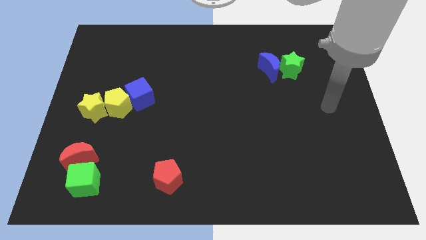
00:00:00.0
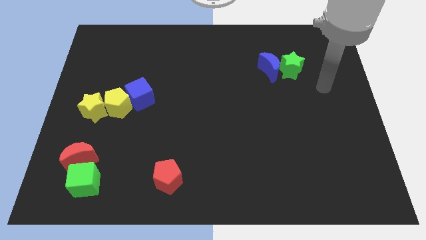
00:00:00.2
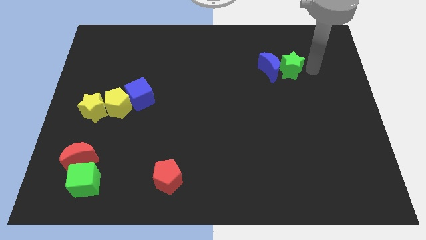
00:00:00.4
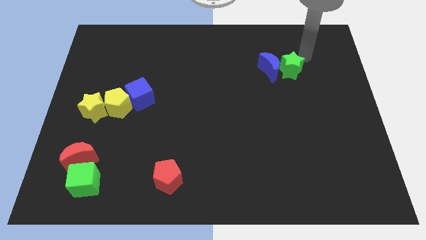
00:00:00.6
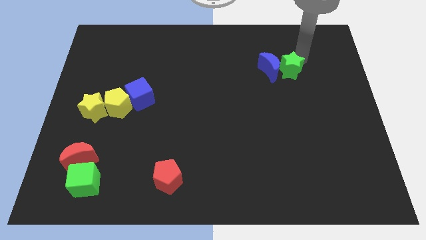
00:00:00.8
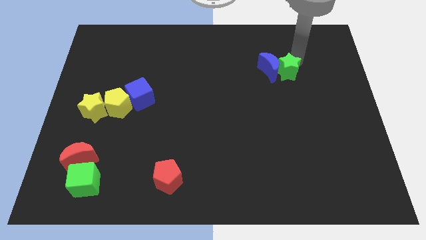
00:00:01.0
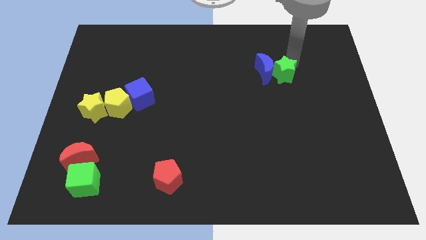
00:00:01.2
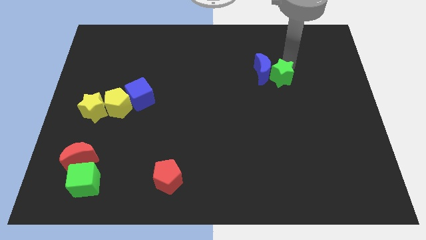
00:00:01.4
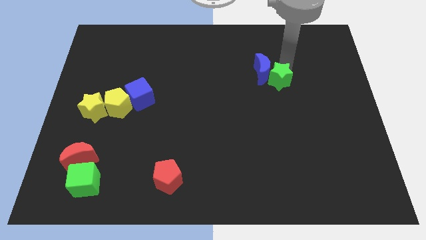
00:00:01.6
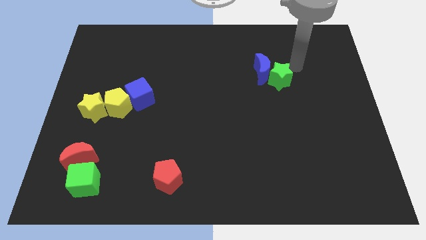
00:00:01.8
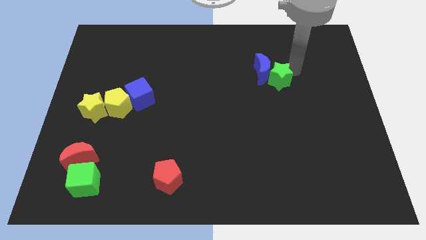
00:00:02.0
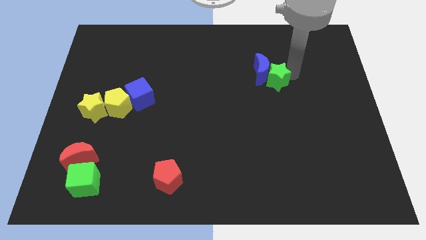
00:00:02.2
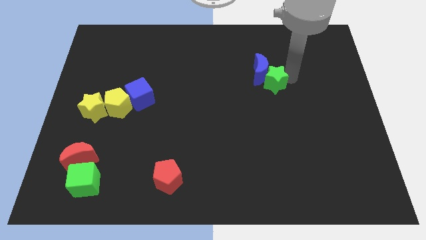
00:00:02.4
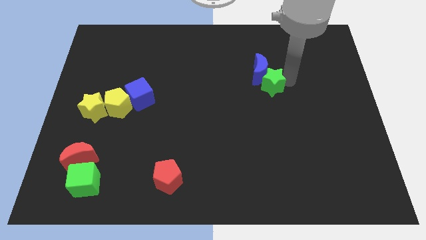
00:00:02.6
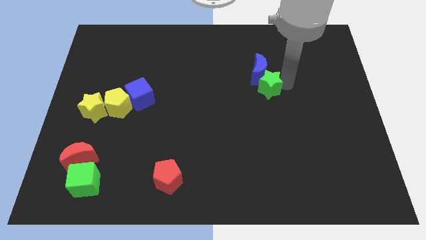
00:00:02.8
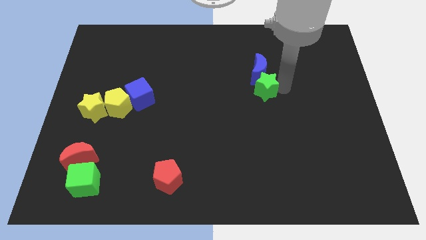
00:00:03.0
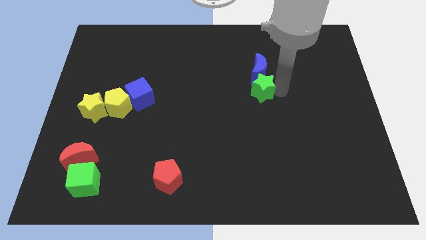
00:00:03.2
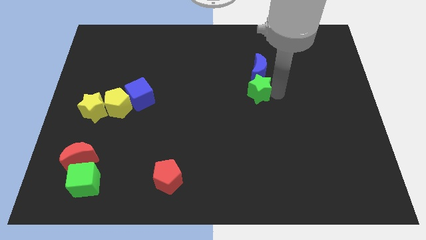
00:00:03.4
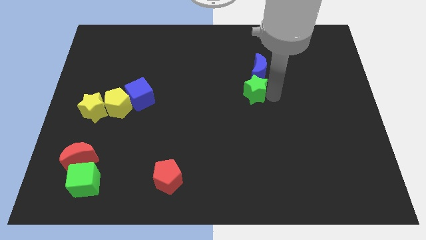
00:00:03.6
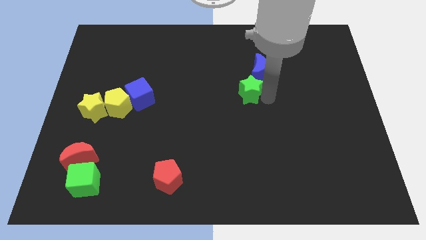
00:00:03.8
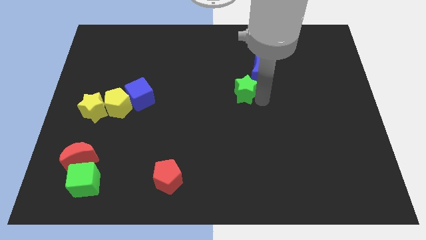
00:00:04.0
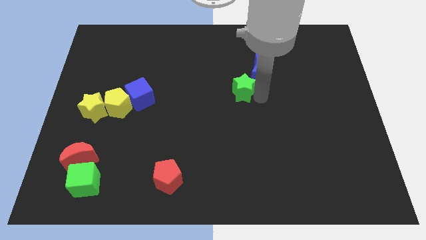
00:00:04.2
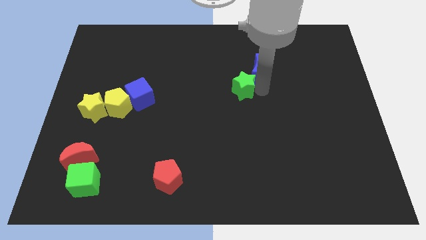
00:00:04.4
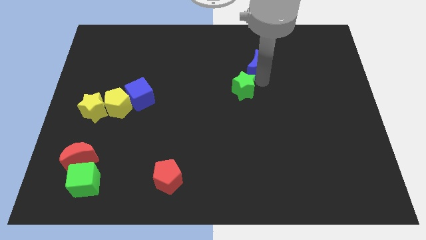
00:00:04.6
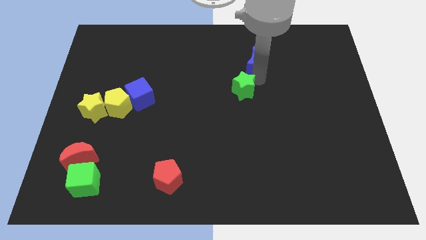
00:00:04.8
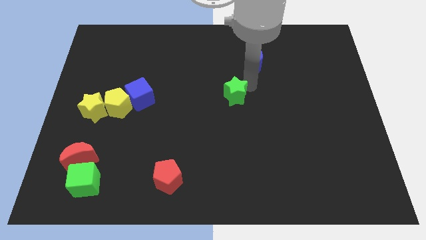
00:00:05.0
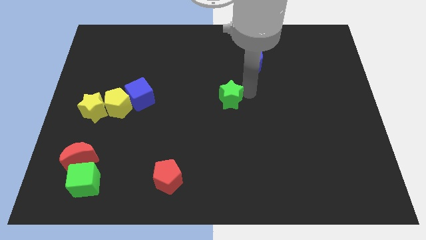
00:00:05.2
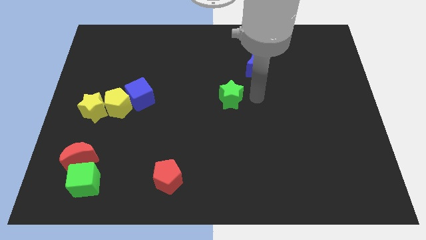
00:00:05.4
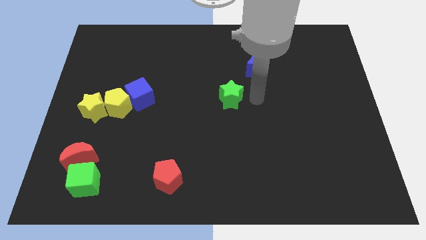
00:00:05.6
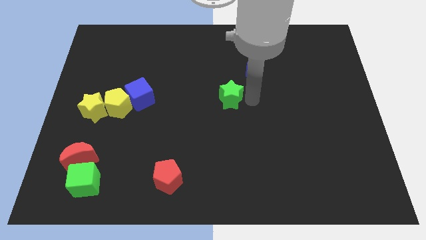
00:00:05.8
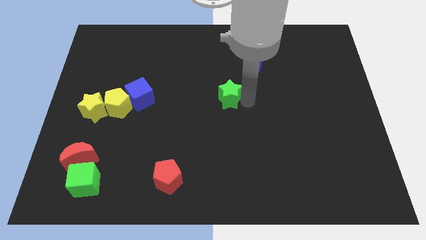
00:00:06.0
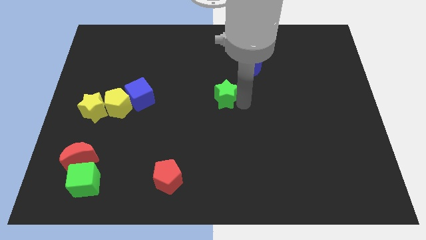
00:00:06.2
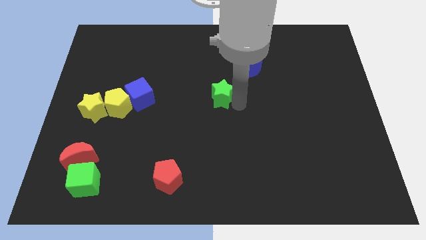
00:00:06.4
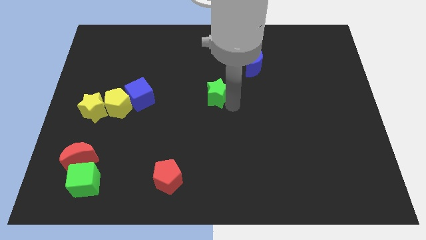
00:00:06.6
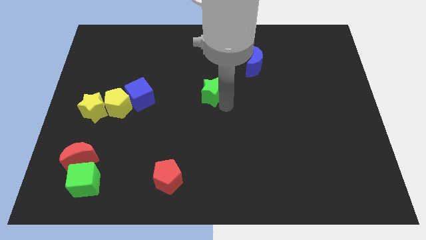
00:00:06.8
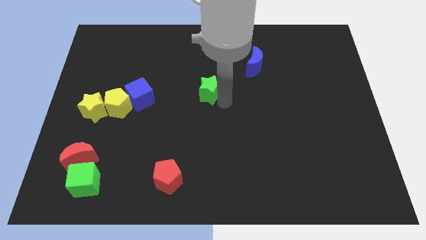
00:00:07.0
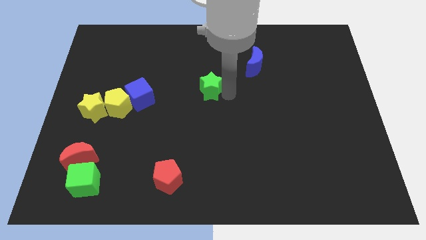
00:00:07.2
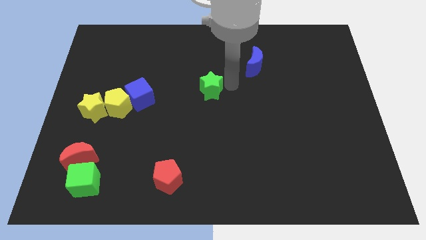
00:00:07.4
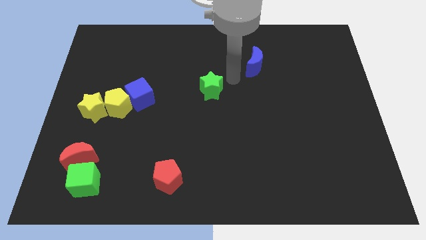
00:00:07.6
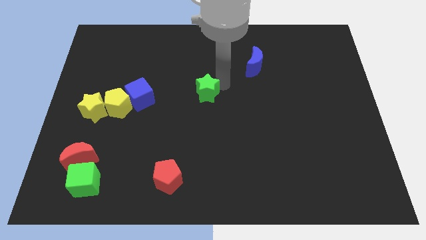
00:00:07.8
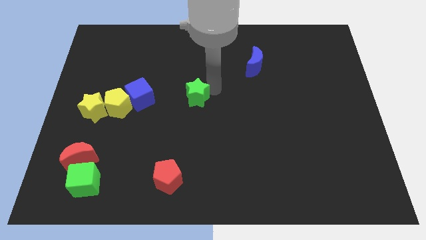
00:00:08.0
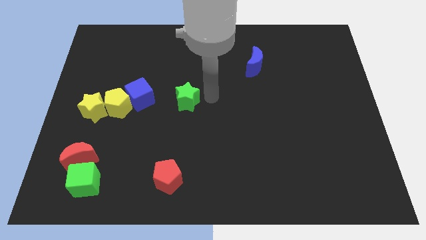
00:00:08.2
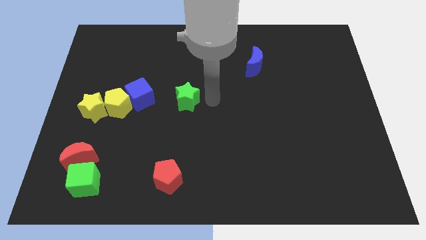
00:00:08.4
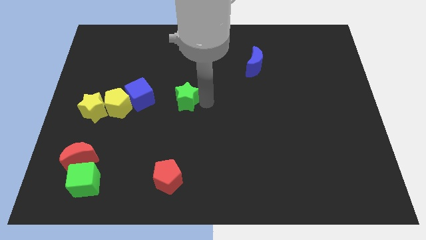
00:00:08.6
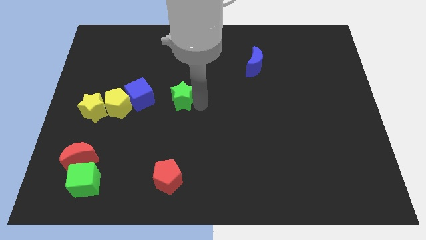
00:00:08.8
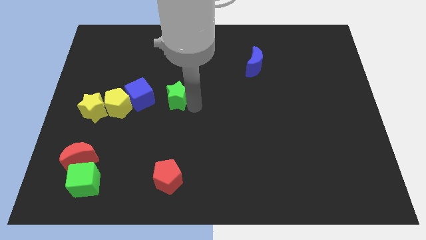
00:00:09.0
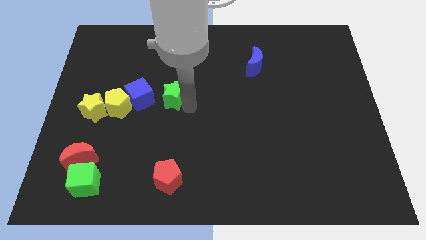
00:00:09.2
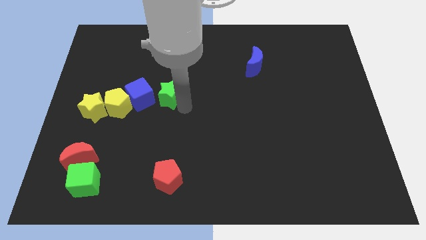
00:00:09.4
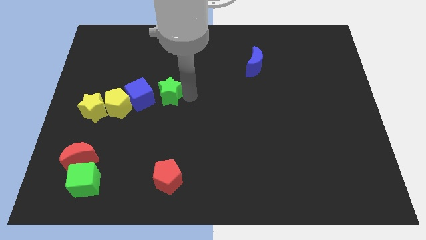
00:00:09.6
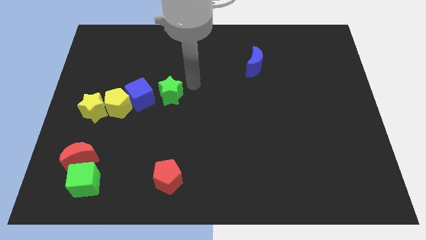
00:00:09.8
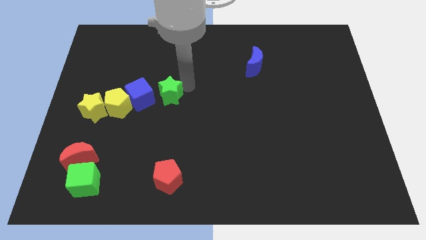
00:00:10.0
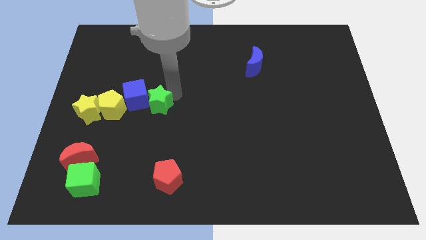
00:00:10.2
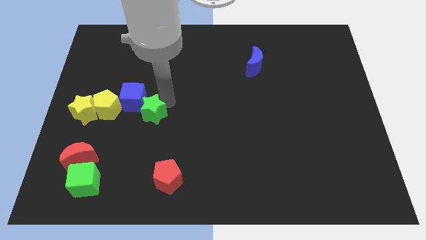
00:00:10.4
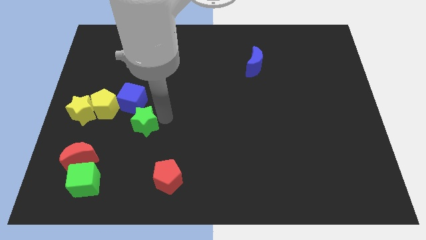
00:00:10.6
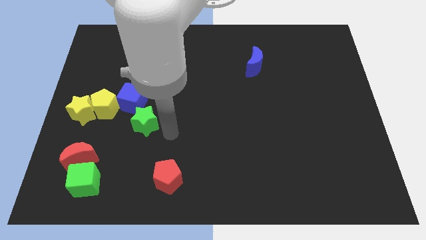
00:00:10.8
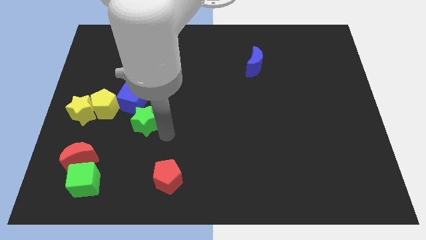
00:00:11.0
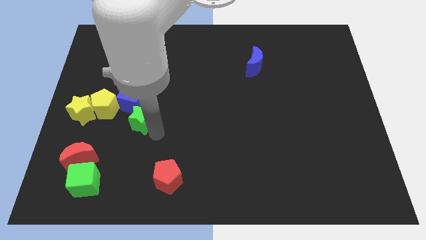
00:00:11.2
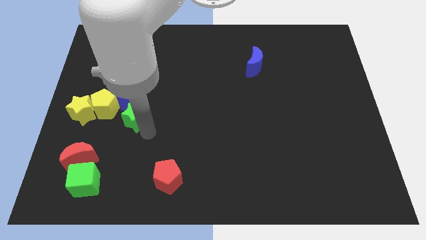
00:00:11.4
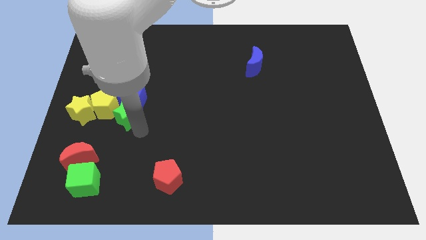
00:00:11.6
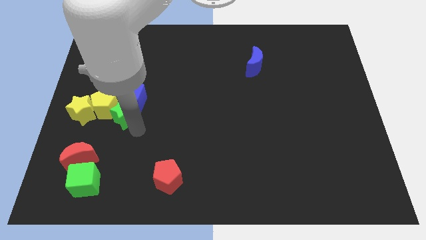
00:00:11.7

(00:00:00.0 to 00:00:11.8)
move the green star to the yellow pentagon

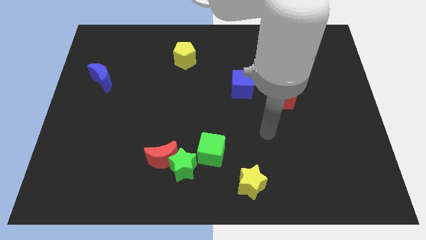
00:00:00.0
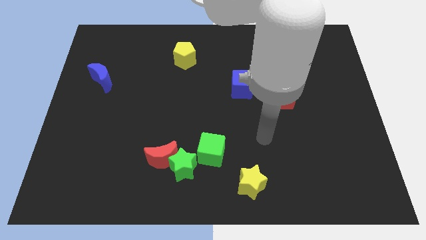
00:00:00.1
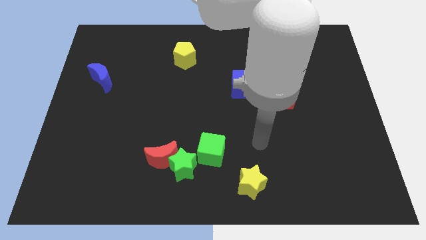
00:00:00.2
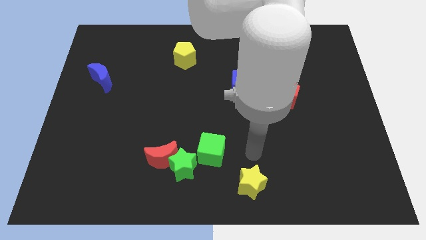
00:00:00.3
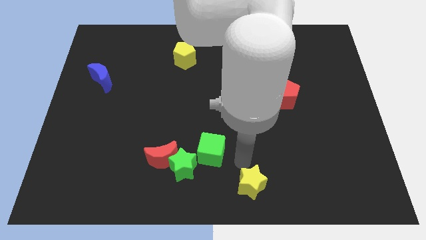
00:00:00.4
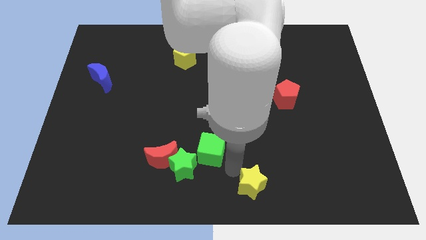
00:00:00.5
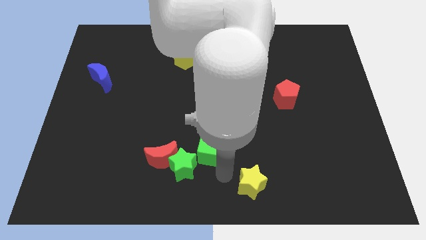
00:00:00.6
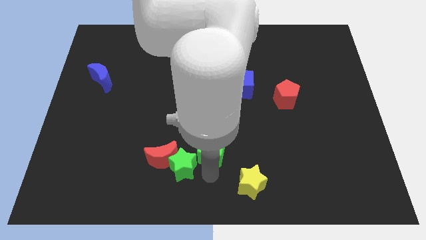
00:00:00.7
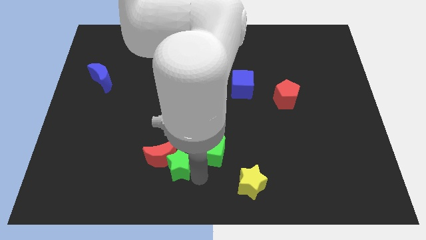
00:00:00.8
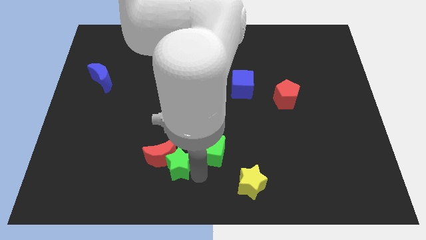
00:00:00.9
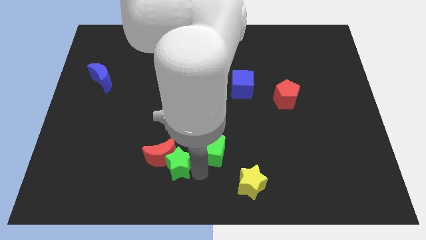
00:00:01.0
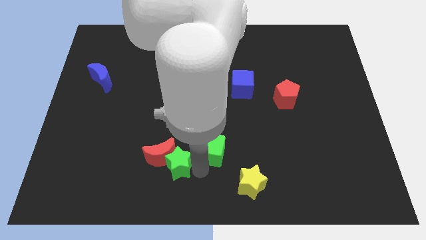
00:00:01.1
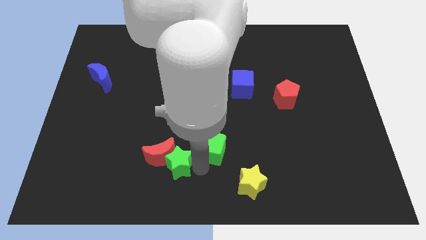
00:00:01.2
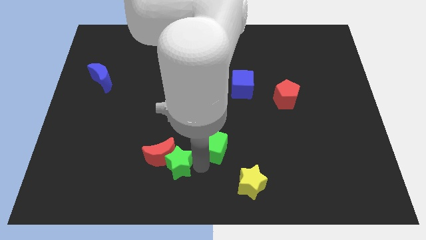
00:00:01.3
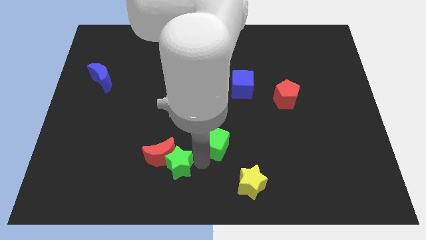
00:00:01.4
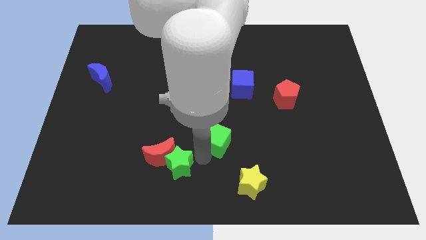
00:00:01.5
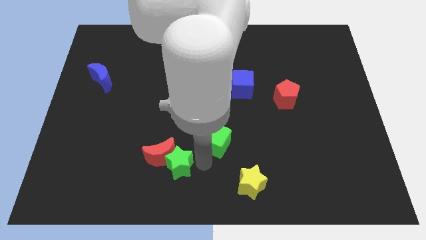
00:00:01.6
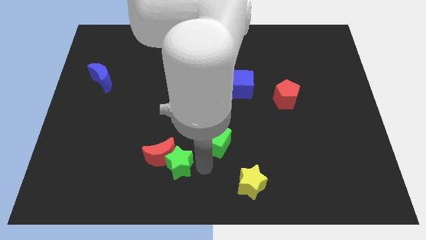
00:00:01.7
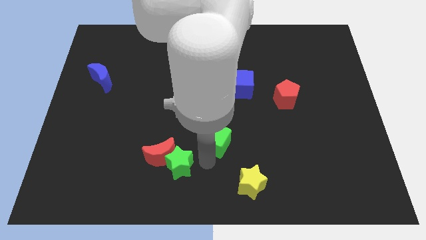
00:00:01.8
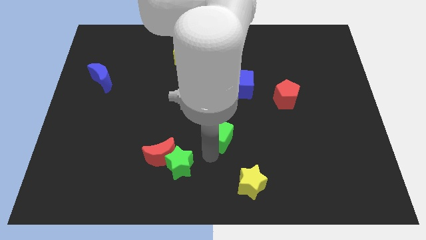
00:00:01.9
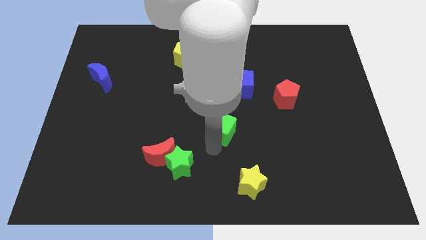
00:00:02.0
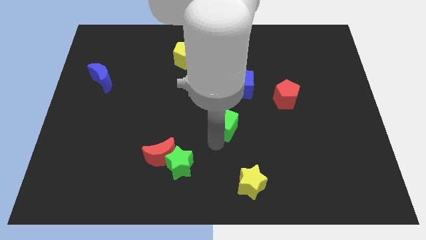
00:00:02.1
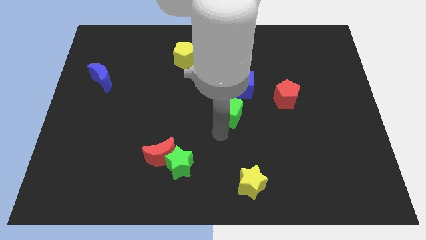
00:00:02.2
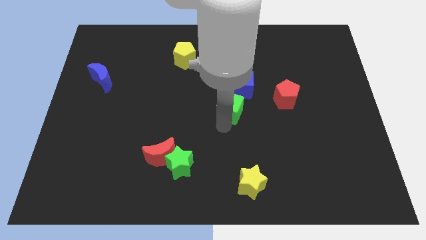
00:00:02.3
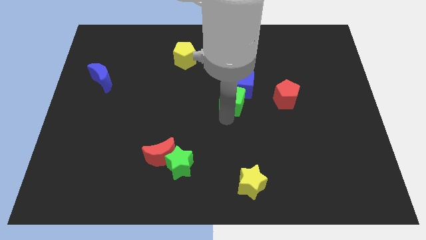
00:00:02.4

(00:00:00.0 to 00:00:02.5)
push the green cube close to the blue cube
